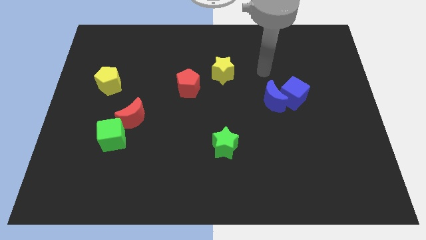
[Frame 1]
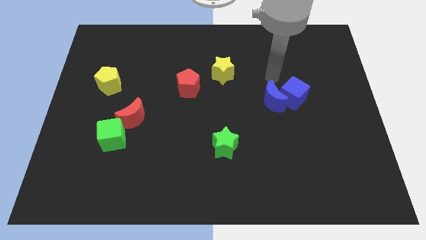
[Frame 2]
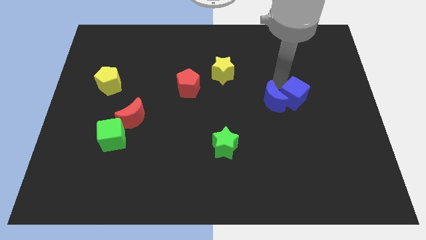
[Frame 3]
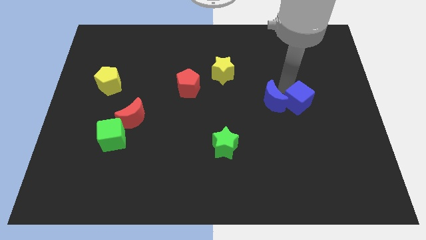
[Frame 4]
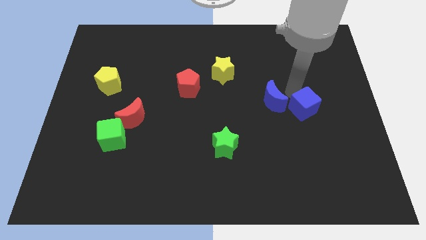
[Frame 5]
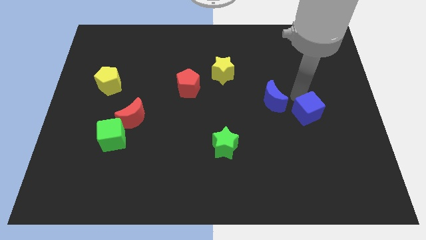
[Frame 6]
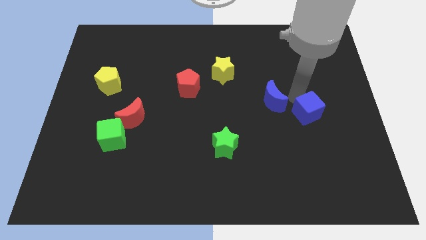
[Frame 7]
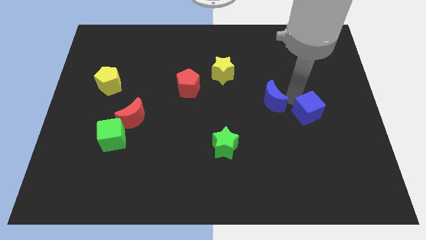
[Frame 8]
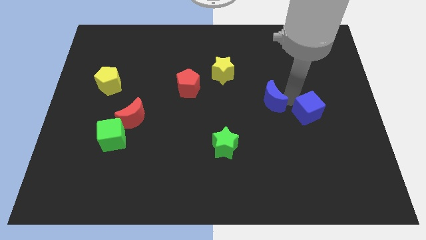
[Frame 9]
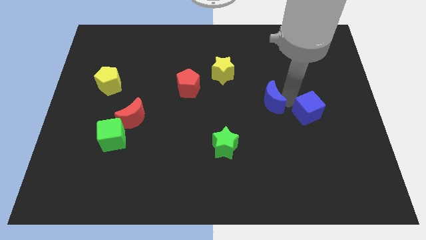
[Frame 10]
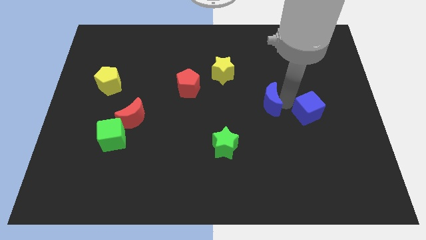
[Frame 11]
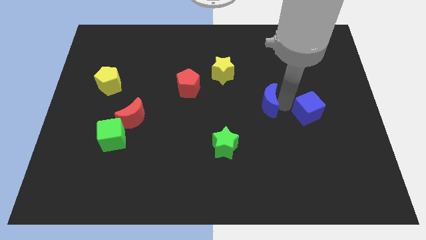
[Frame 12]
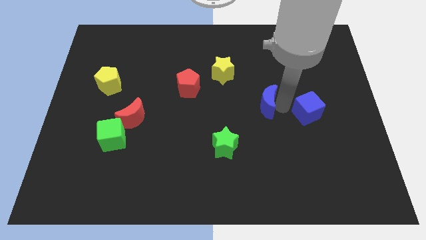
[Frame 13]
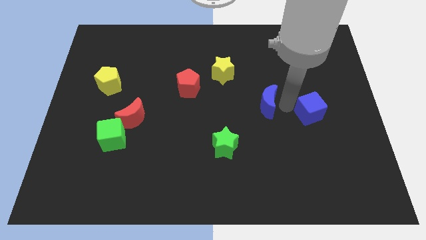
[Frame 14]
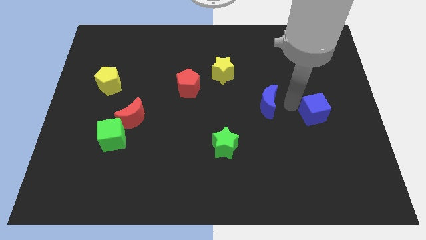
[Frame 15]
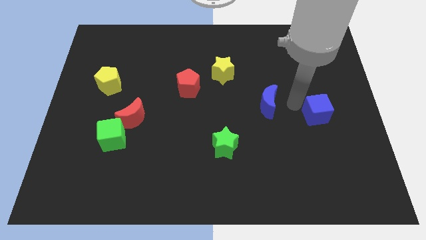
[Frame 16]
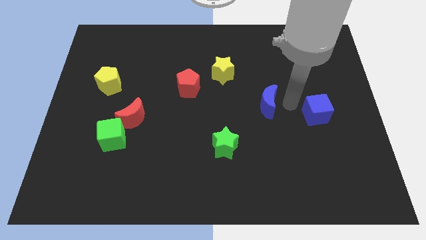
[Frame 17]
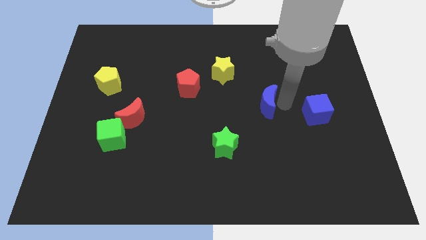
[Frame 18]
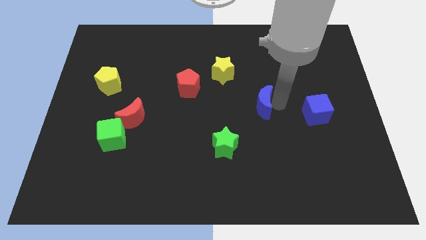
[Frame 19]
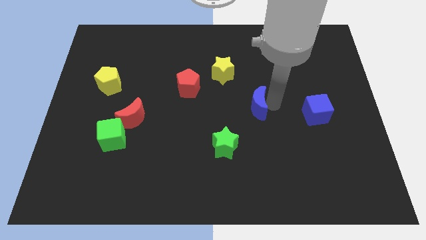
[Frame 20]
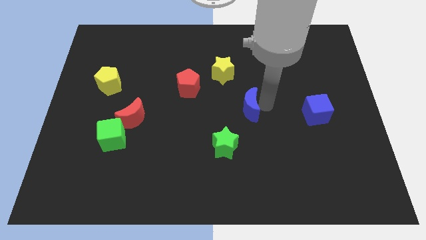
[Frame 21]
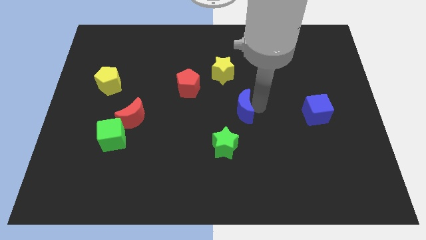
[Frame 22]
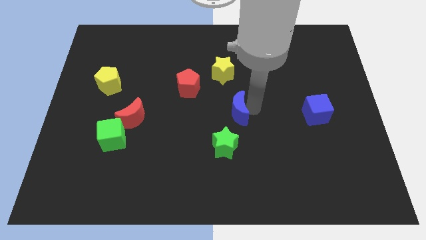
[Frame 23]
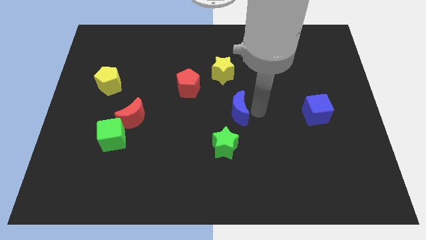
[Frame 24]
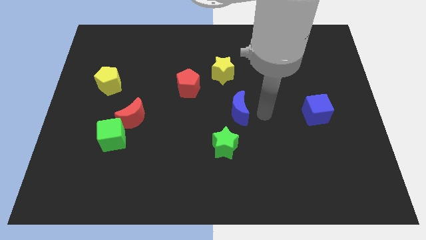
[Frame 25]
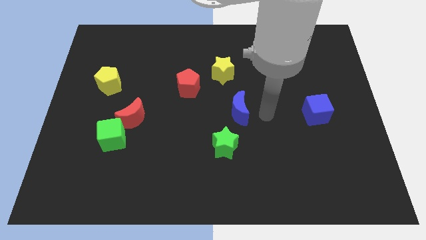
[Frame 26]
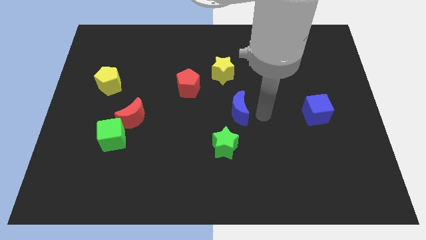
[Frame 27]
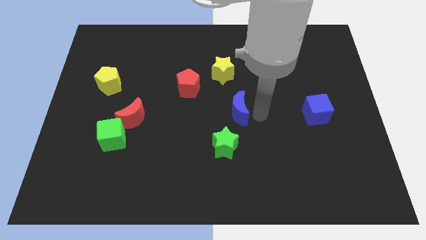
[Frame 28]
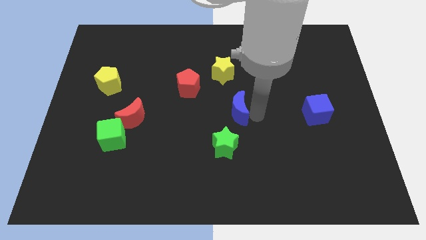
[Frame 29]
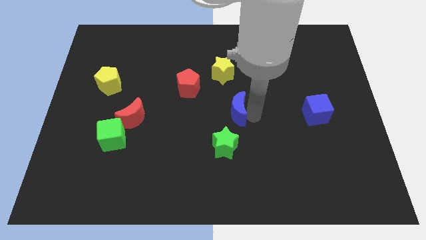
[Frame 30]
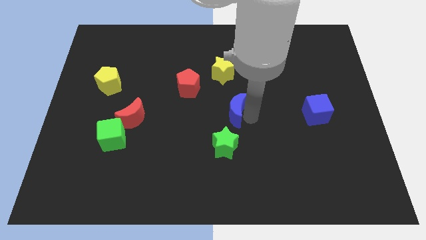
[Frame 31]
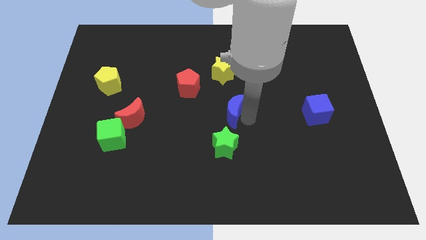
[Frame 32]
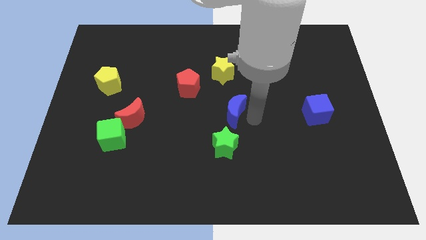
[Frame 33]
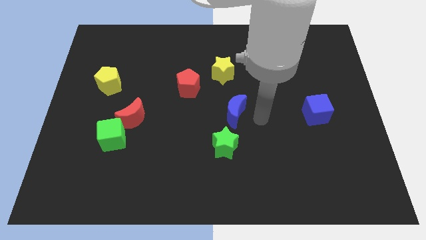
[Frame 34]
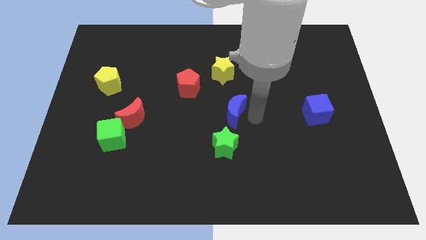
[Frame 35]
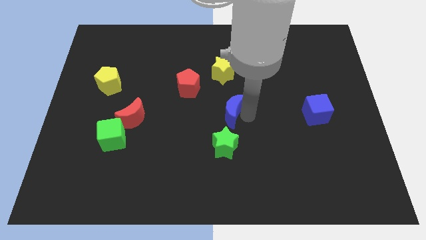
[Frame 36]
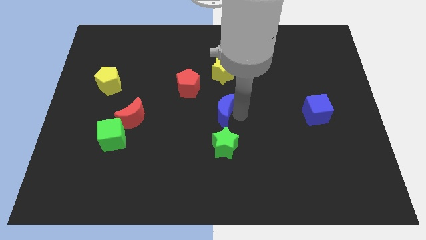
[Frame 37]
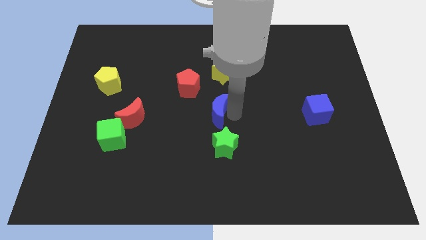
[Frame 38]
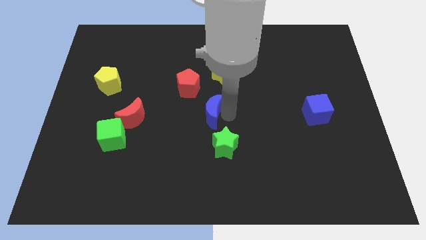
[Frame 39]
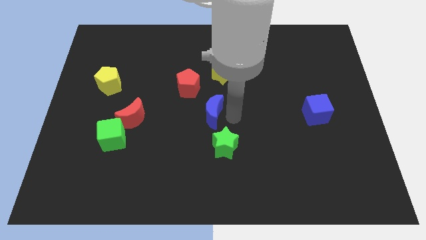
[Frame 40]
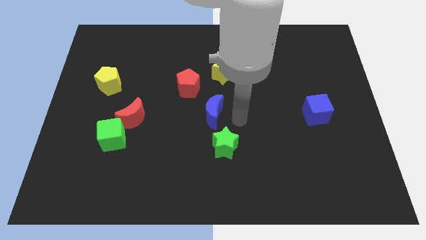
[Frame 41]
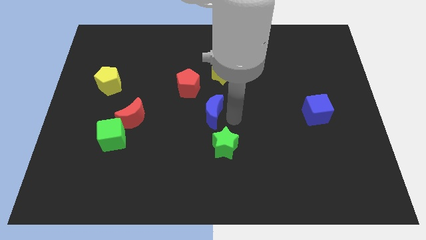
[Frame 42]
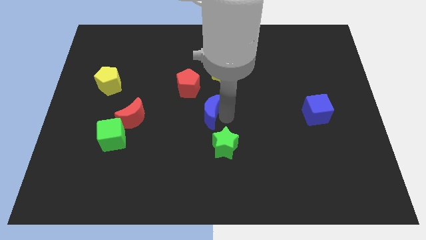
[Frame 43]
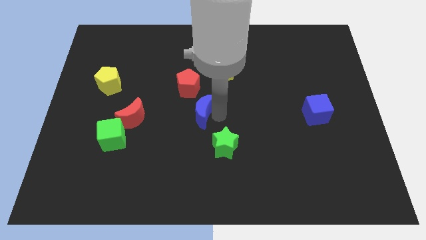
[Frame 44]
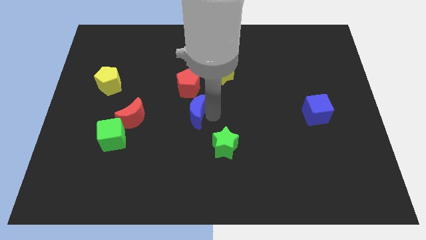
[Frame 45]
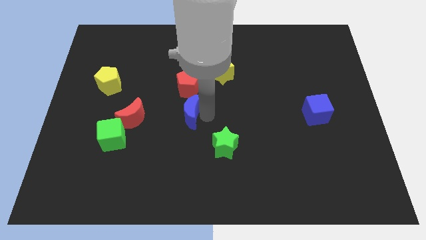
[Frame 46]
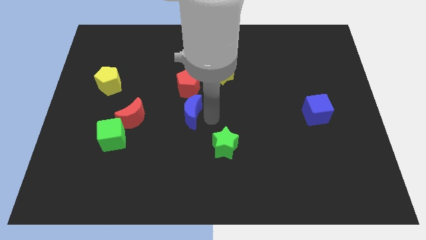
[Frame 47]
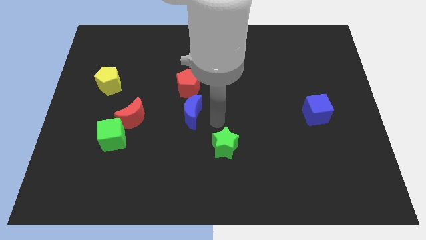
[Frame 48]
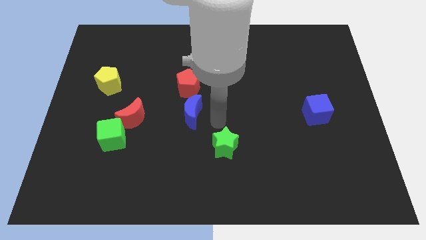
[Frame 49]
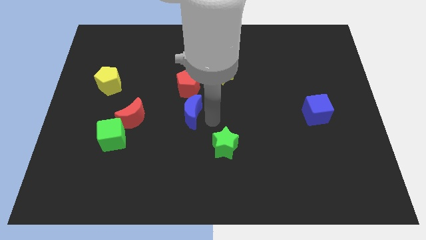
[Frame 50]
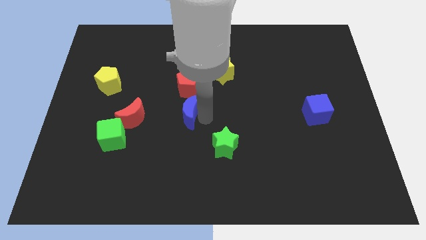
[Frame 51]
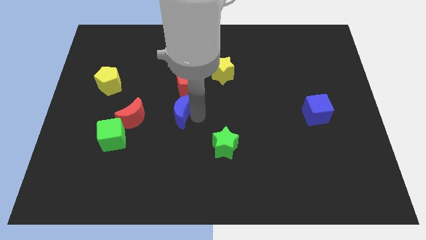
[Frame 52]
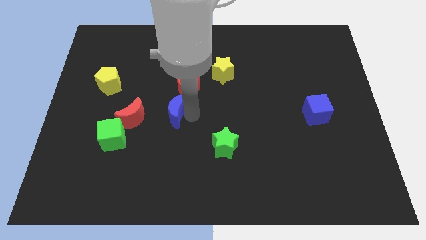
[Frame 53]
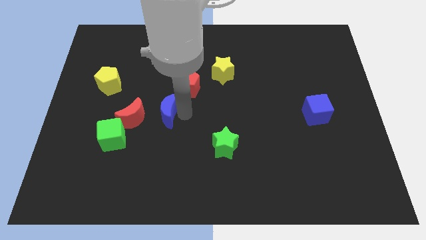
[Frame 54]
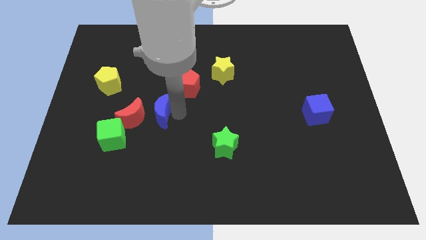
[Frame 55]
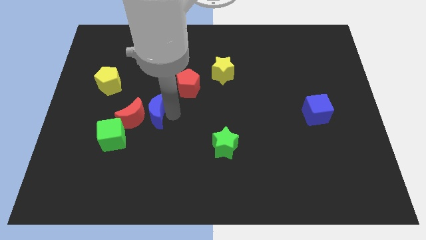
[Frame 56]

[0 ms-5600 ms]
put the blue moon to the red moon

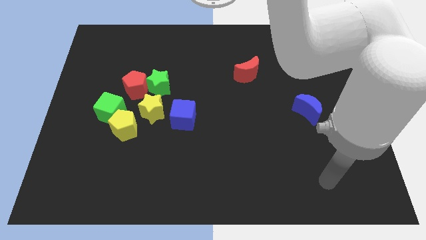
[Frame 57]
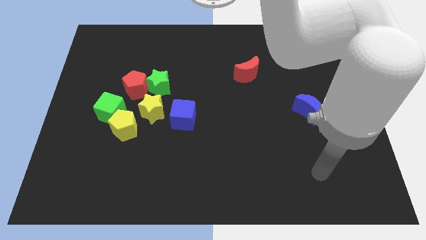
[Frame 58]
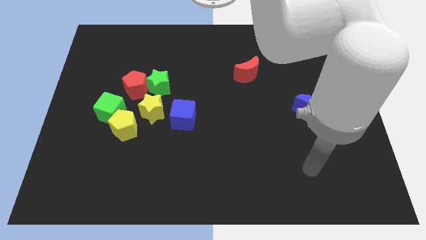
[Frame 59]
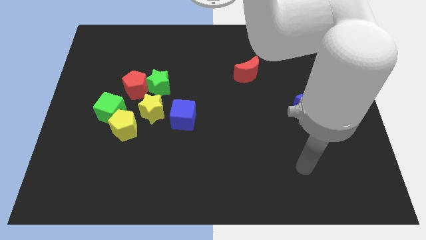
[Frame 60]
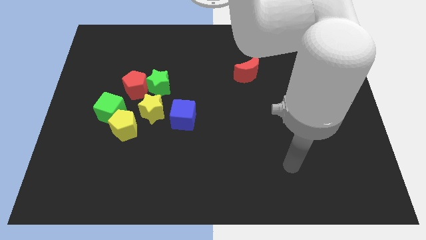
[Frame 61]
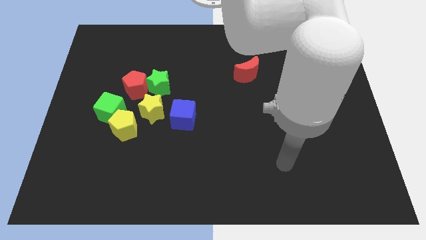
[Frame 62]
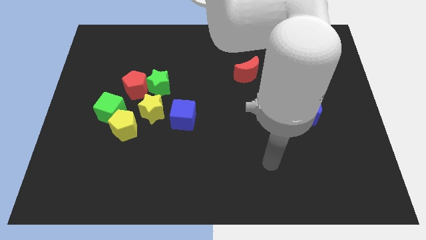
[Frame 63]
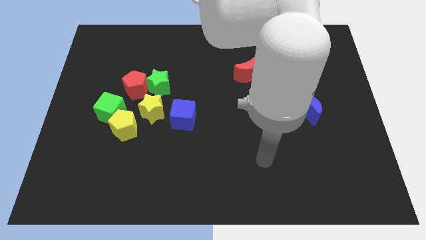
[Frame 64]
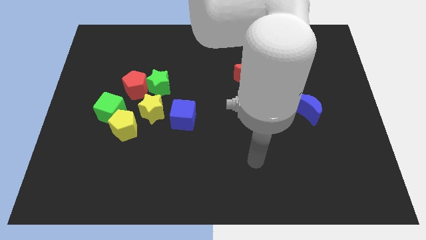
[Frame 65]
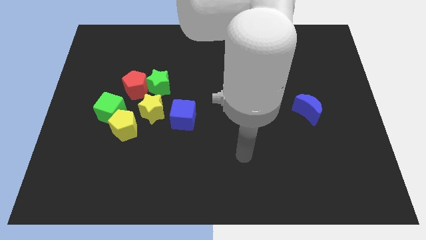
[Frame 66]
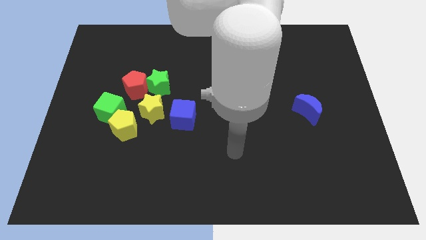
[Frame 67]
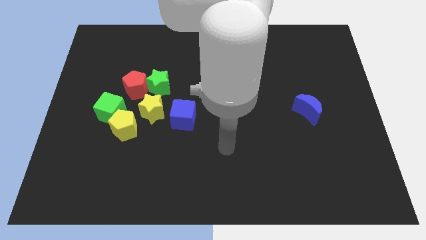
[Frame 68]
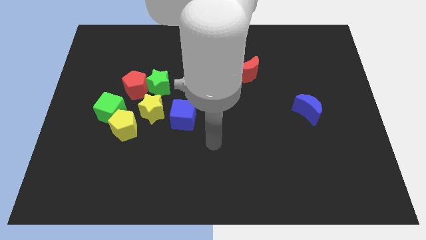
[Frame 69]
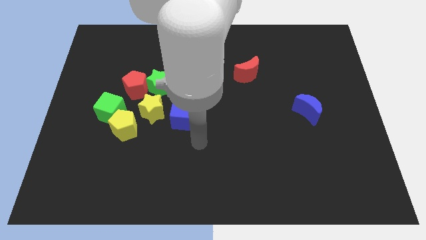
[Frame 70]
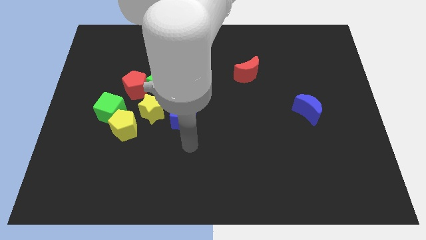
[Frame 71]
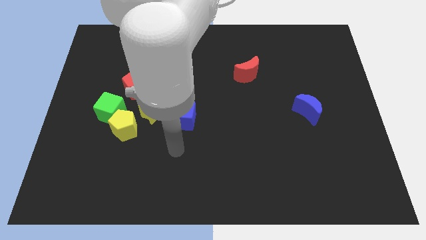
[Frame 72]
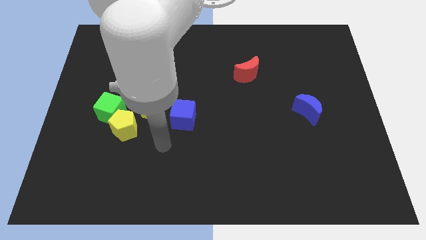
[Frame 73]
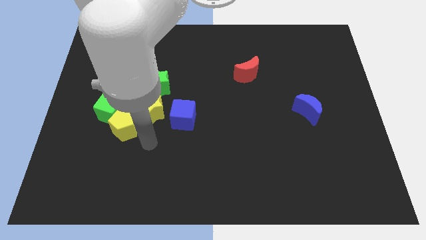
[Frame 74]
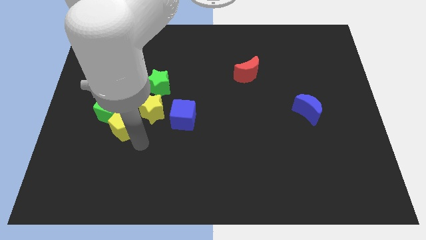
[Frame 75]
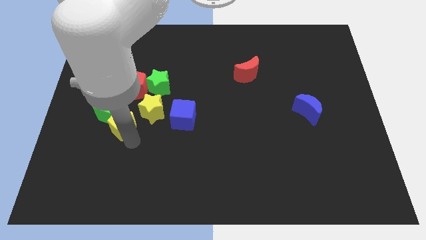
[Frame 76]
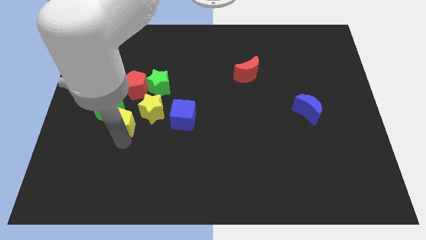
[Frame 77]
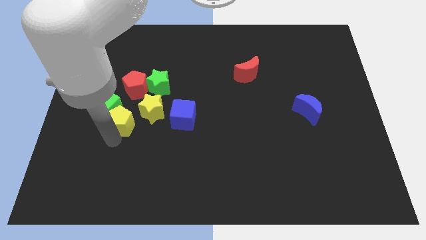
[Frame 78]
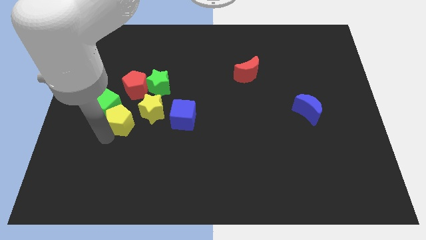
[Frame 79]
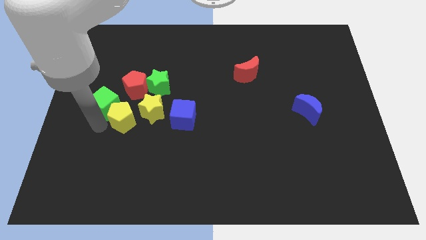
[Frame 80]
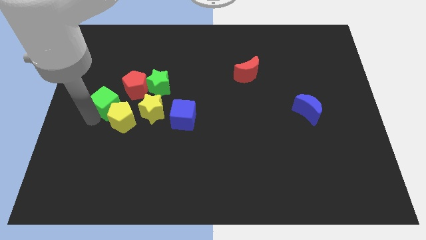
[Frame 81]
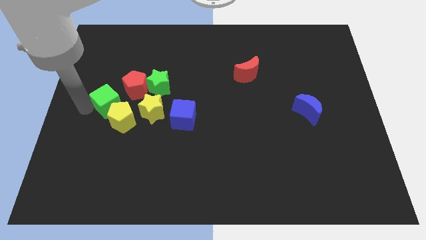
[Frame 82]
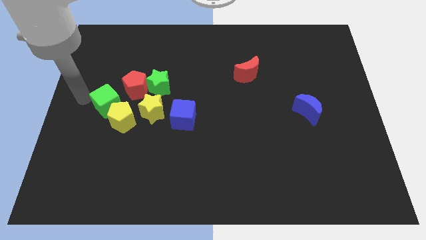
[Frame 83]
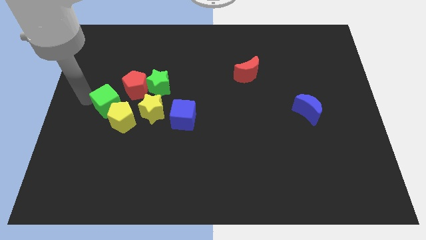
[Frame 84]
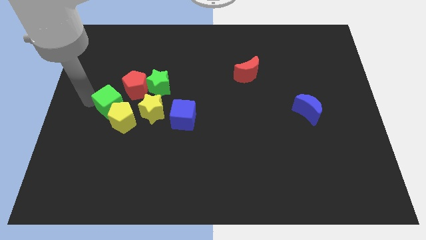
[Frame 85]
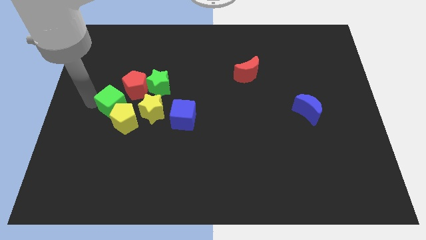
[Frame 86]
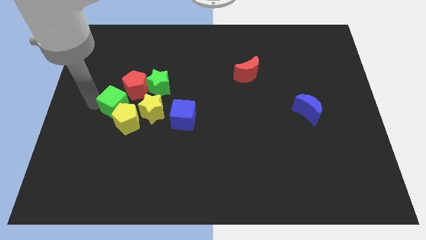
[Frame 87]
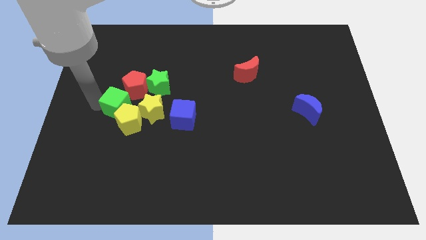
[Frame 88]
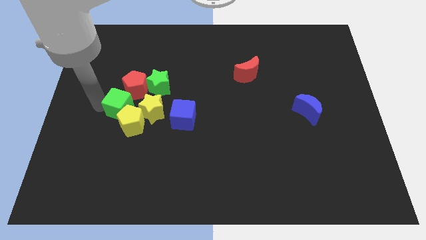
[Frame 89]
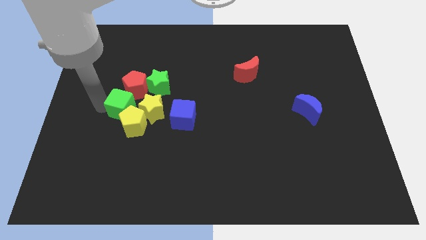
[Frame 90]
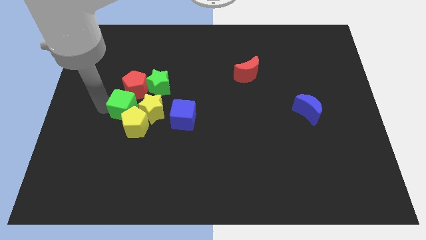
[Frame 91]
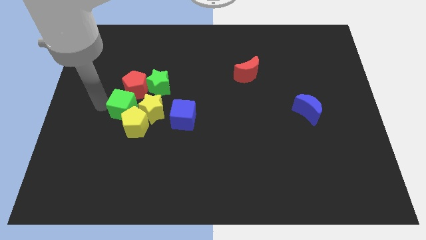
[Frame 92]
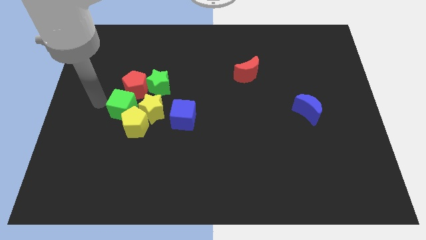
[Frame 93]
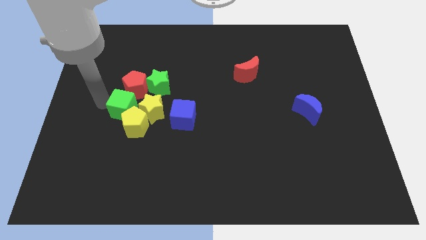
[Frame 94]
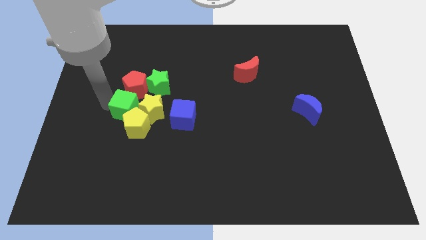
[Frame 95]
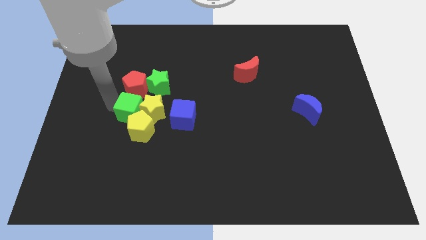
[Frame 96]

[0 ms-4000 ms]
push the green cube to the yellow star
